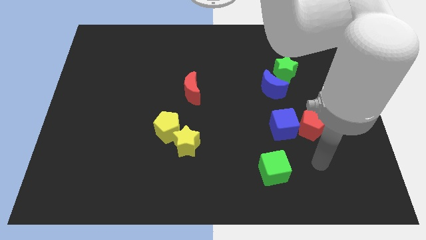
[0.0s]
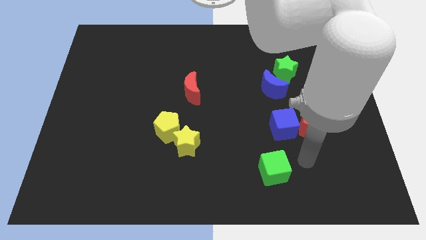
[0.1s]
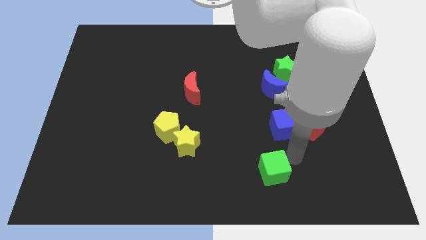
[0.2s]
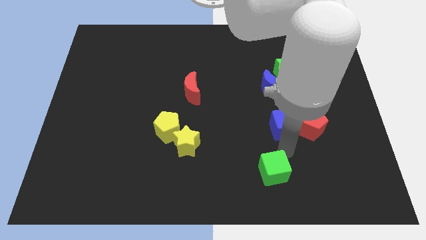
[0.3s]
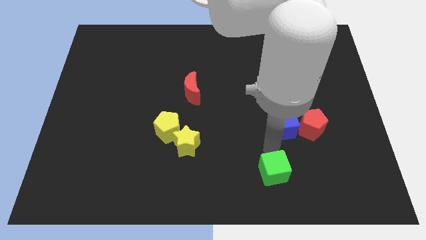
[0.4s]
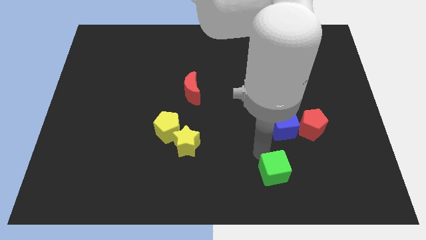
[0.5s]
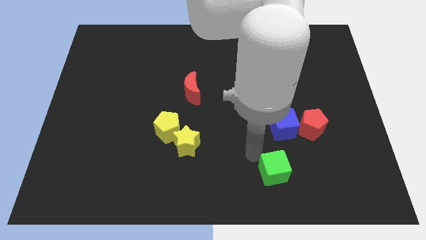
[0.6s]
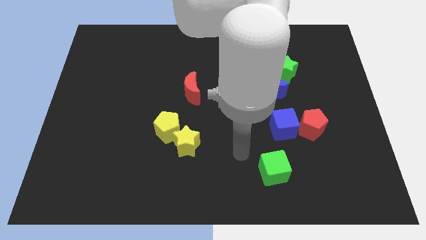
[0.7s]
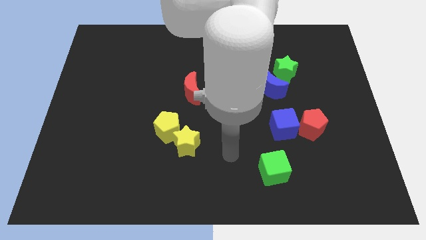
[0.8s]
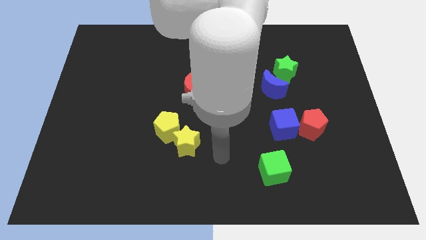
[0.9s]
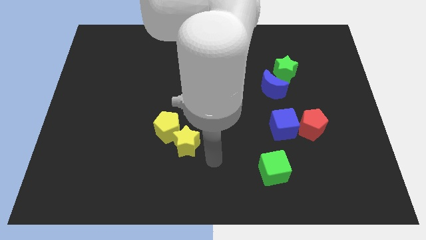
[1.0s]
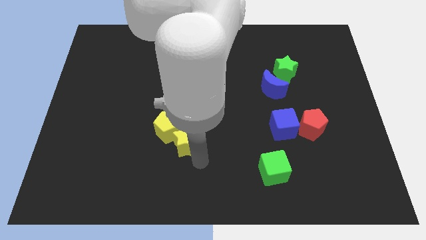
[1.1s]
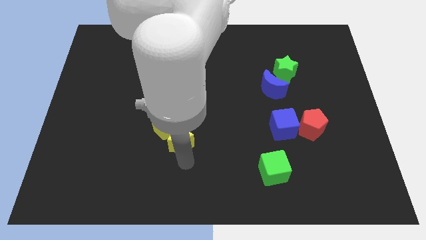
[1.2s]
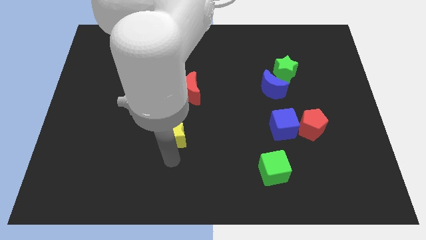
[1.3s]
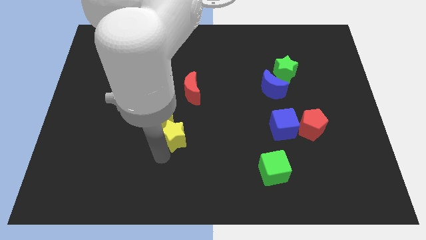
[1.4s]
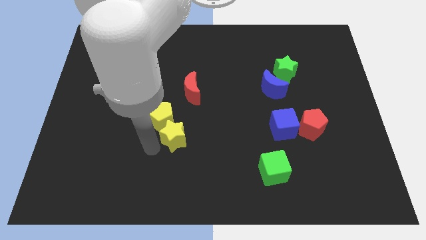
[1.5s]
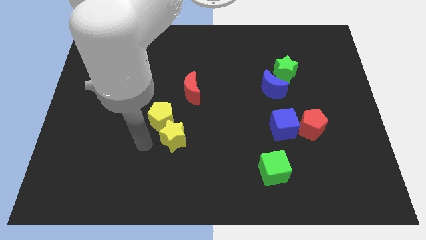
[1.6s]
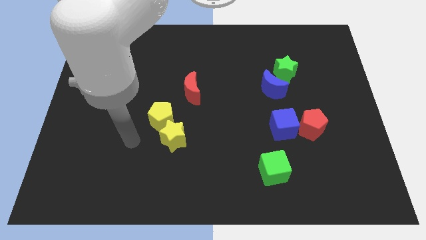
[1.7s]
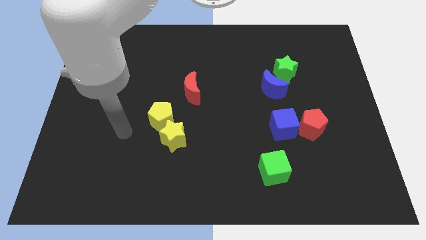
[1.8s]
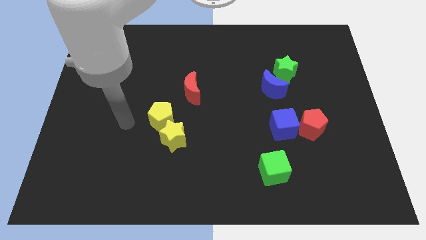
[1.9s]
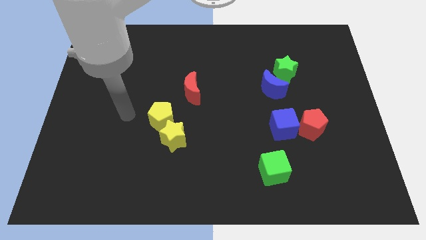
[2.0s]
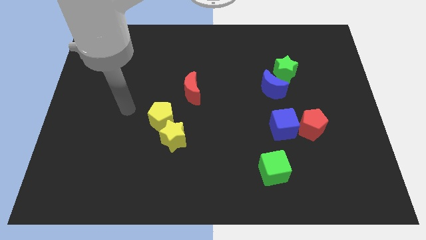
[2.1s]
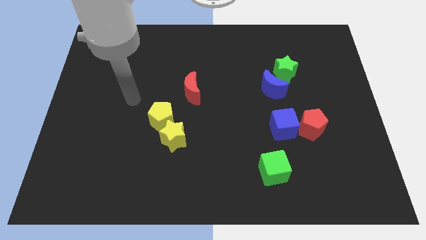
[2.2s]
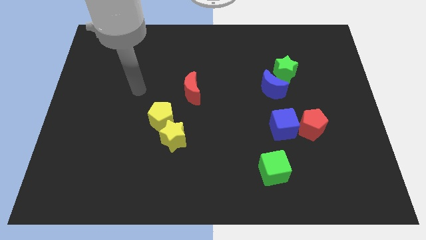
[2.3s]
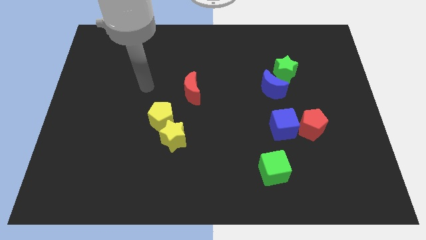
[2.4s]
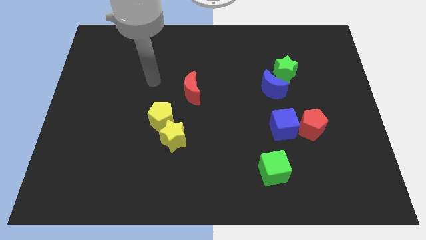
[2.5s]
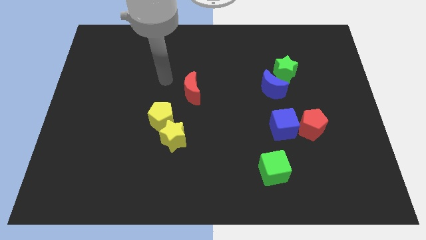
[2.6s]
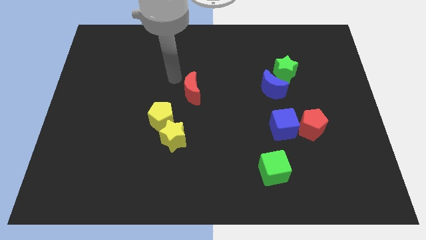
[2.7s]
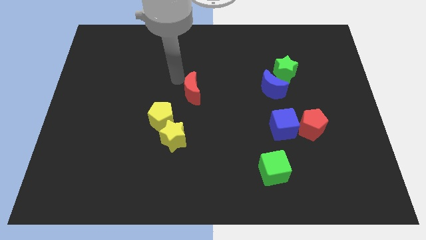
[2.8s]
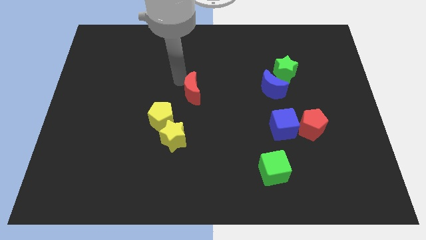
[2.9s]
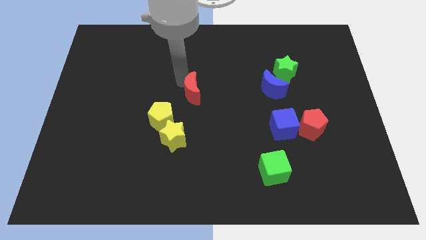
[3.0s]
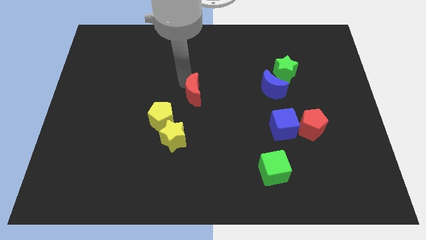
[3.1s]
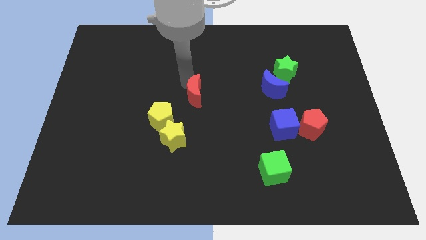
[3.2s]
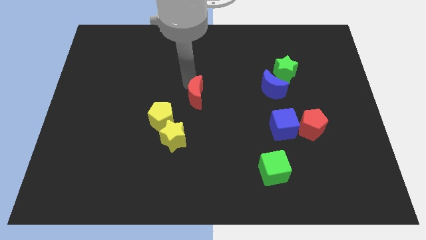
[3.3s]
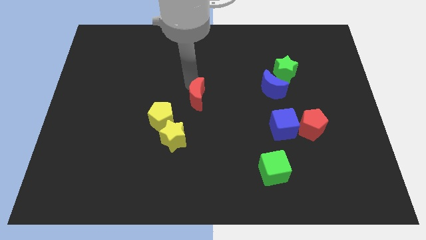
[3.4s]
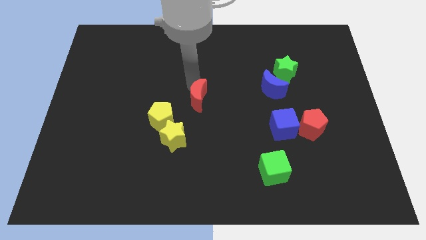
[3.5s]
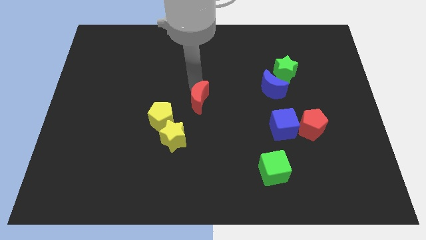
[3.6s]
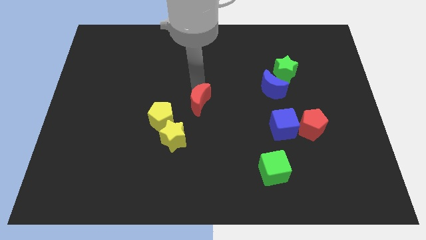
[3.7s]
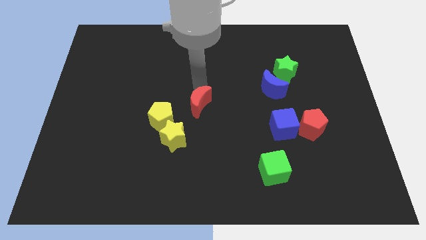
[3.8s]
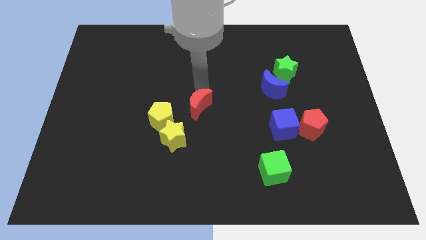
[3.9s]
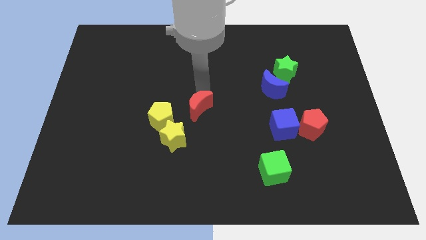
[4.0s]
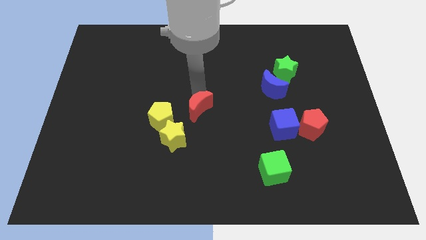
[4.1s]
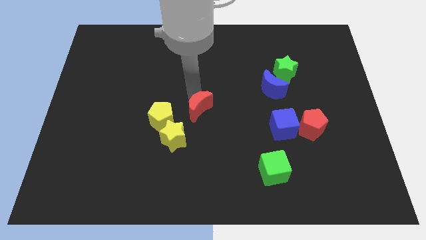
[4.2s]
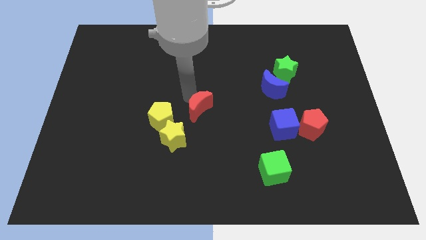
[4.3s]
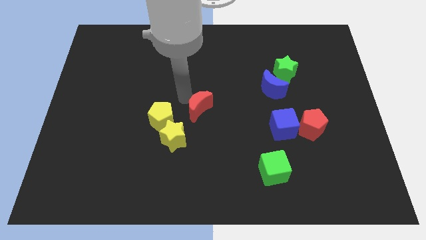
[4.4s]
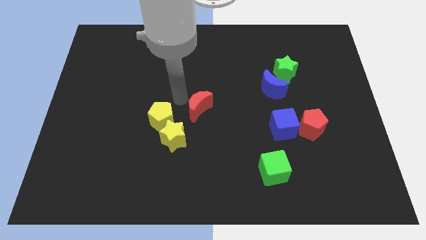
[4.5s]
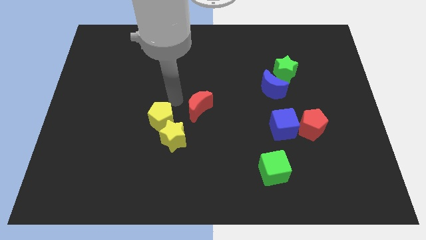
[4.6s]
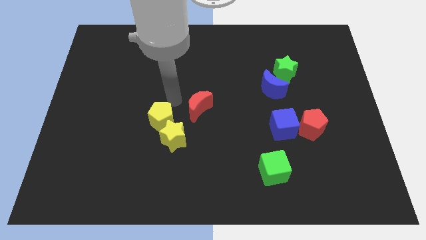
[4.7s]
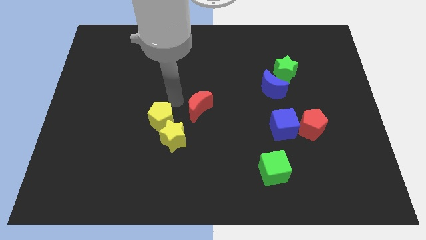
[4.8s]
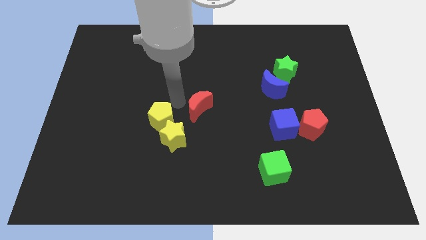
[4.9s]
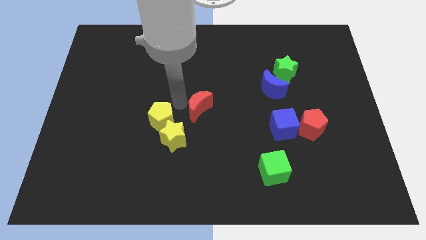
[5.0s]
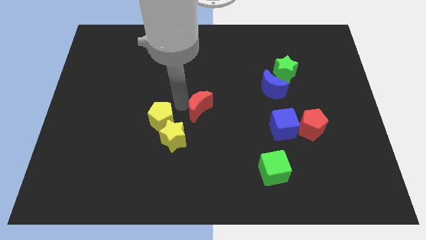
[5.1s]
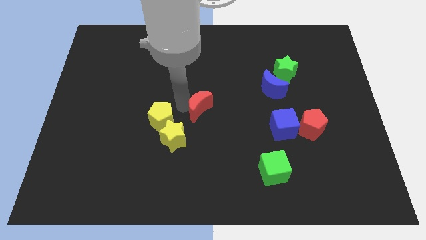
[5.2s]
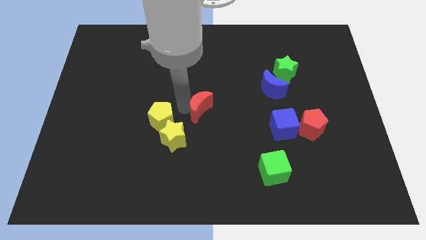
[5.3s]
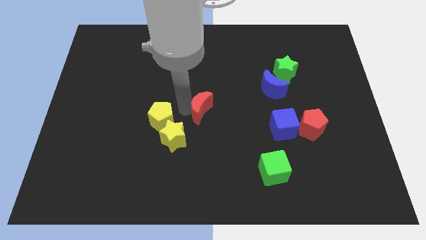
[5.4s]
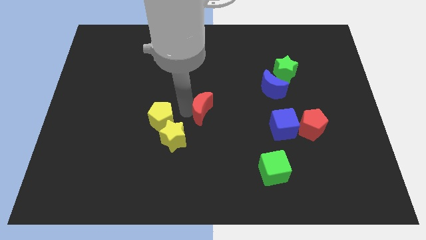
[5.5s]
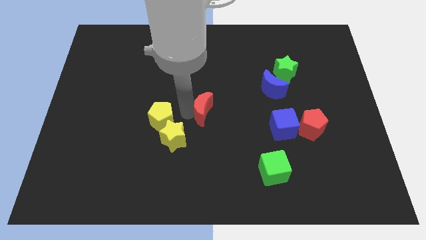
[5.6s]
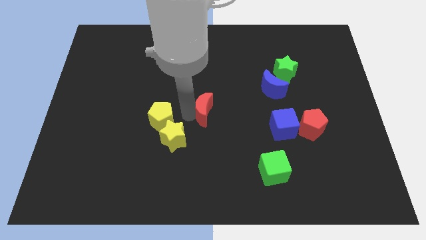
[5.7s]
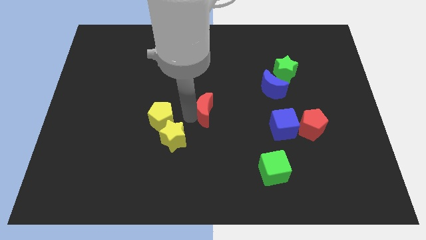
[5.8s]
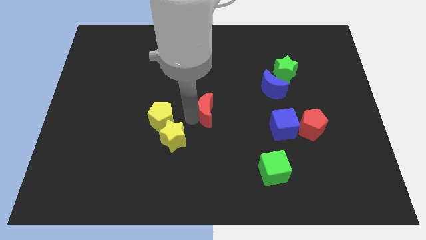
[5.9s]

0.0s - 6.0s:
slightly push the red moon down and right

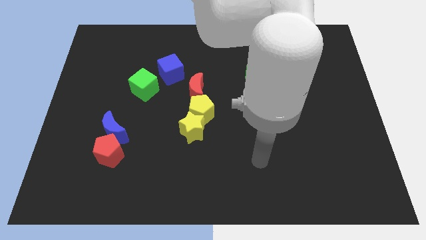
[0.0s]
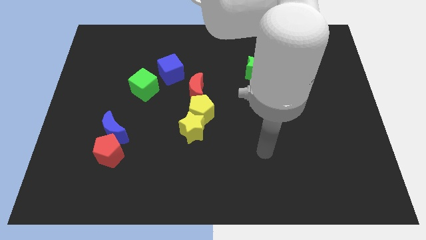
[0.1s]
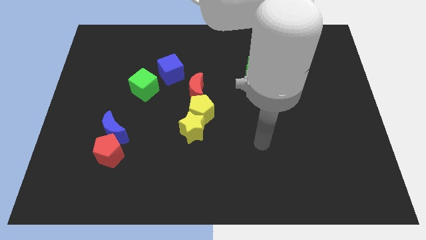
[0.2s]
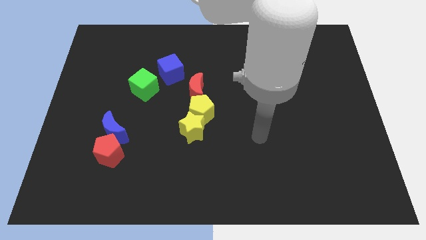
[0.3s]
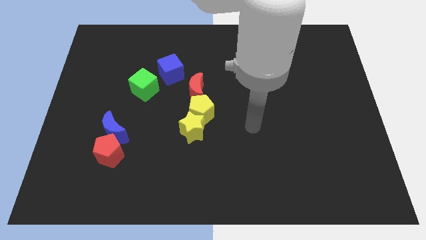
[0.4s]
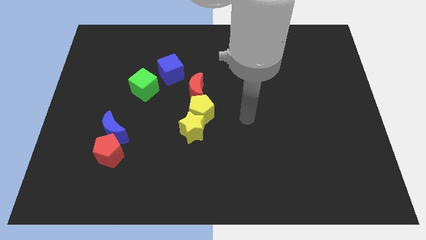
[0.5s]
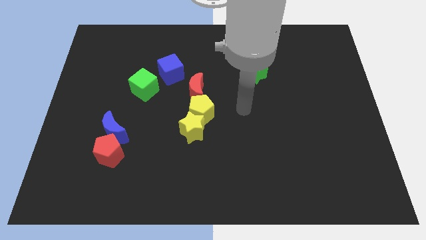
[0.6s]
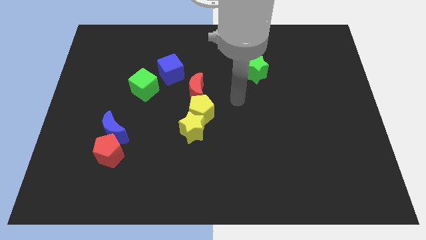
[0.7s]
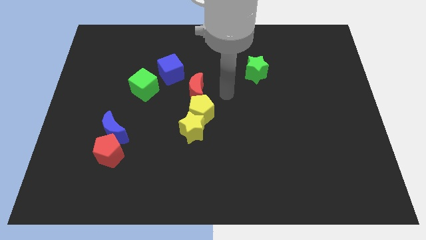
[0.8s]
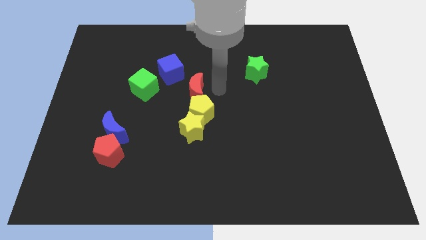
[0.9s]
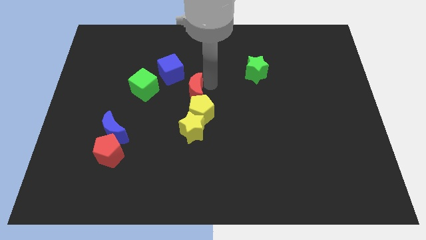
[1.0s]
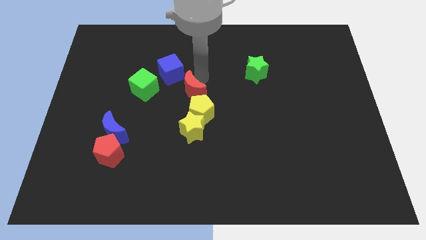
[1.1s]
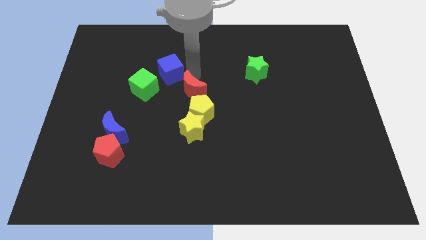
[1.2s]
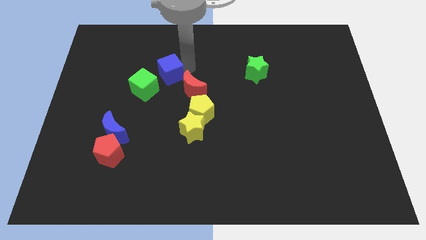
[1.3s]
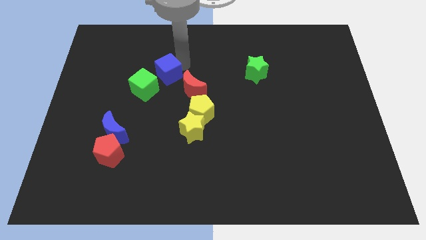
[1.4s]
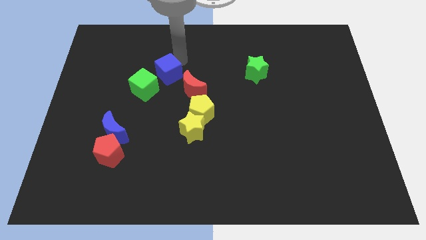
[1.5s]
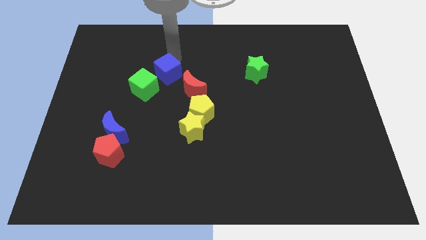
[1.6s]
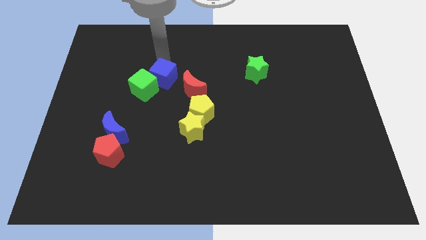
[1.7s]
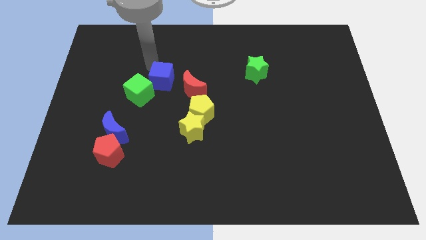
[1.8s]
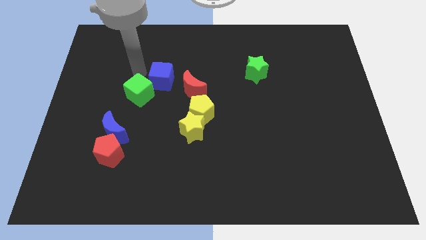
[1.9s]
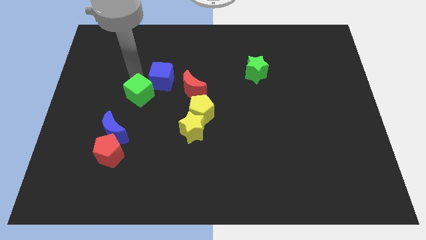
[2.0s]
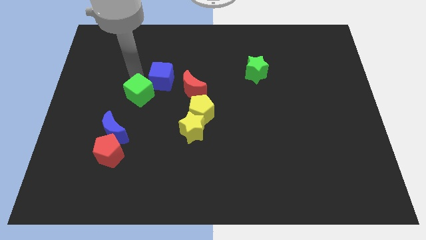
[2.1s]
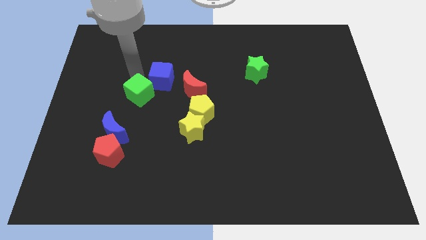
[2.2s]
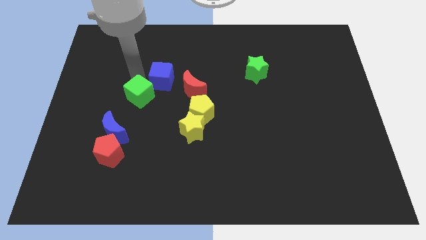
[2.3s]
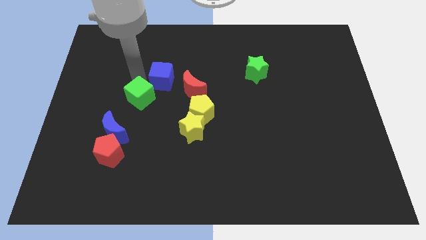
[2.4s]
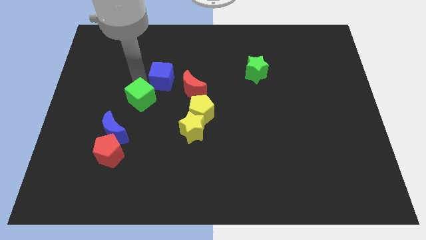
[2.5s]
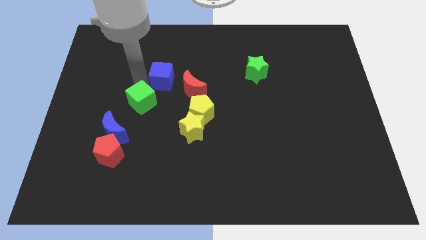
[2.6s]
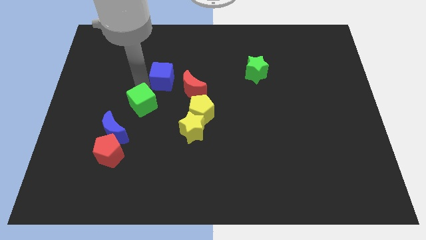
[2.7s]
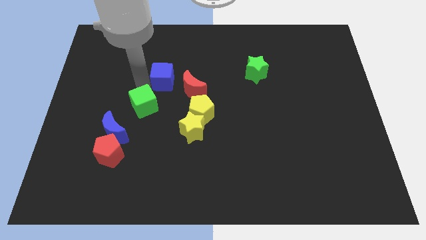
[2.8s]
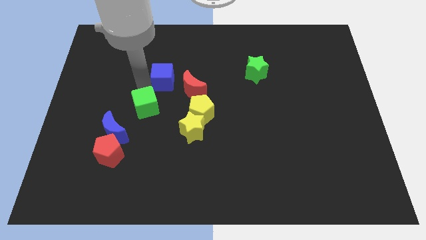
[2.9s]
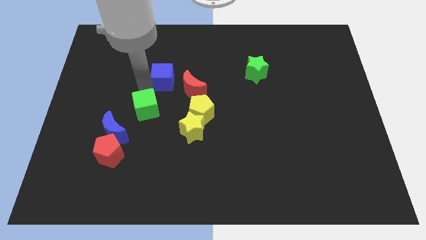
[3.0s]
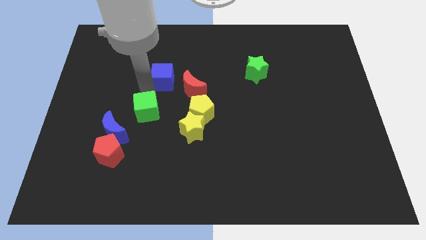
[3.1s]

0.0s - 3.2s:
slightly slide the green cube downwards
